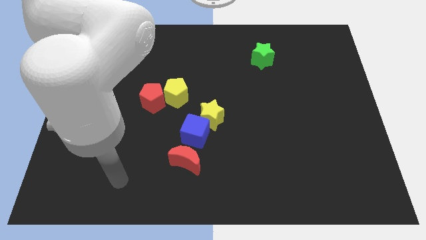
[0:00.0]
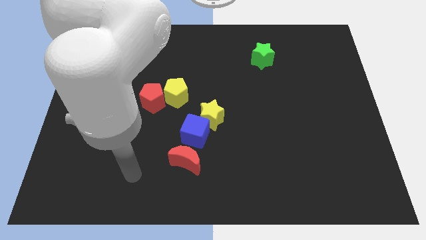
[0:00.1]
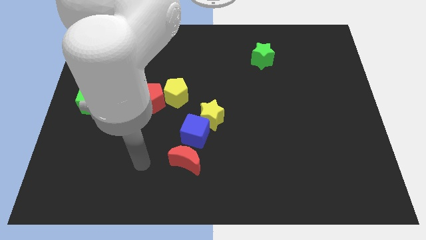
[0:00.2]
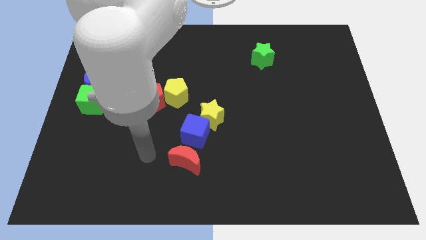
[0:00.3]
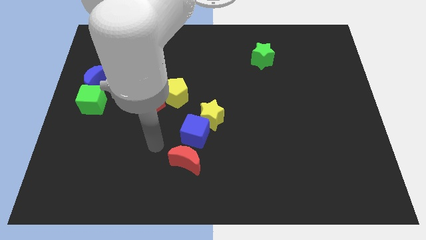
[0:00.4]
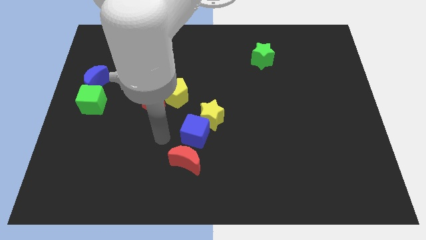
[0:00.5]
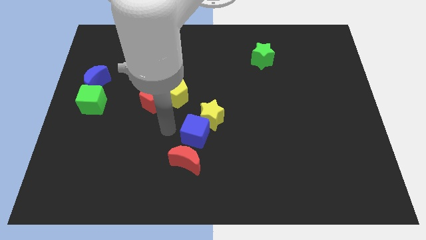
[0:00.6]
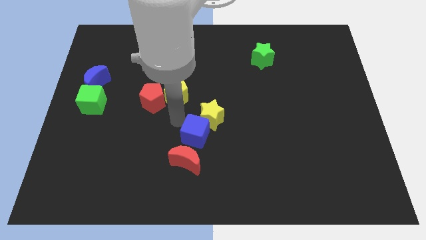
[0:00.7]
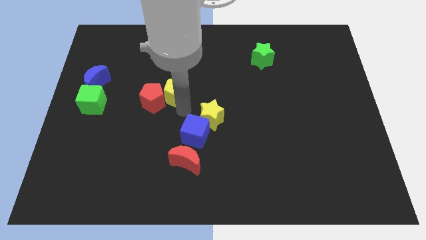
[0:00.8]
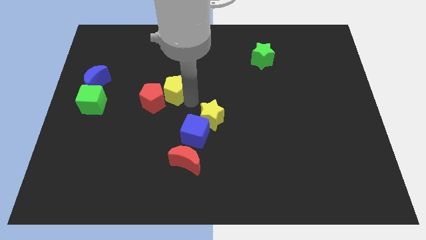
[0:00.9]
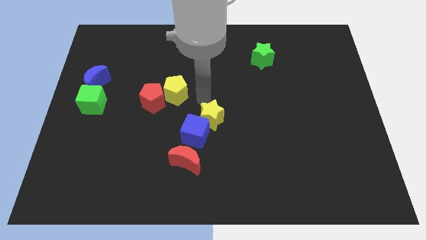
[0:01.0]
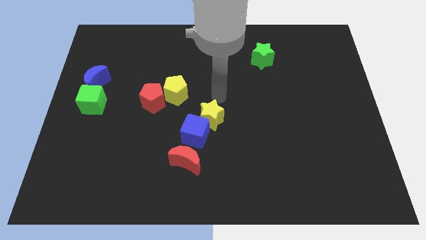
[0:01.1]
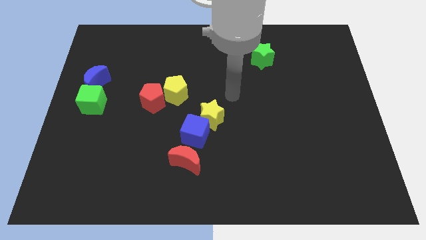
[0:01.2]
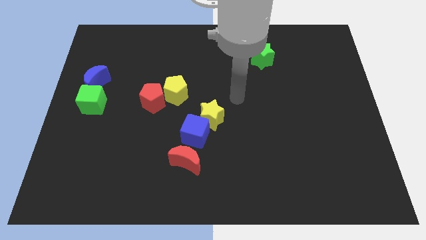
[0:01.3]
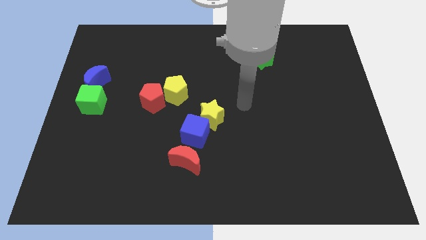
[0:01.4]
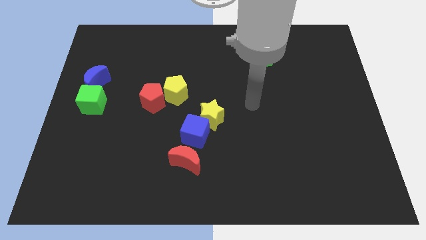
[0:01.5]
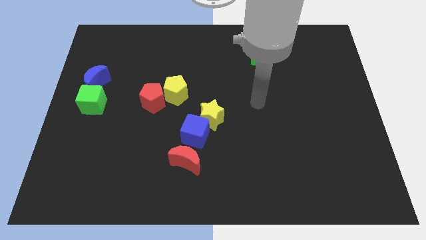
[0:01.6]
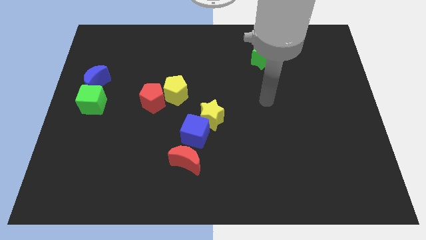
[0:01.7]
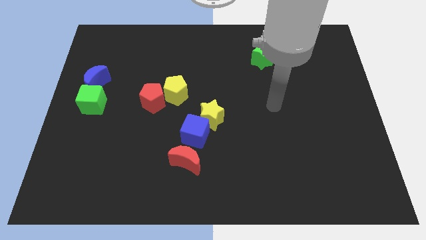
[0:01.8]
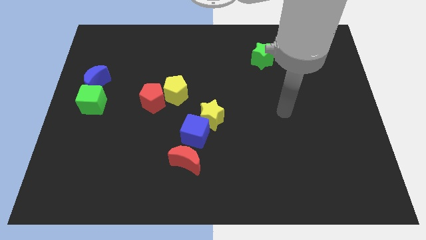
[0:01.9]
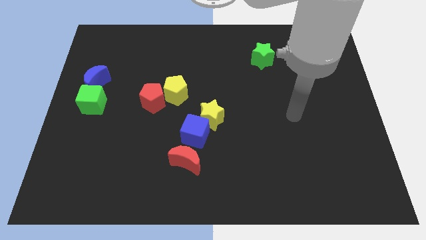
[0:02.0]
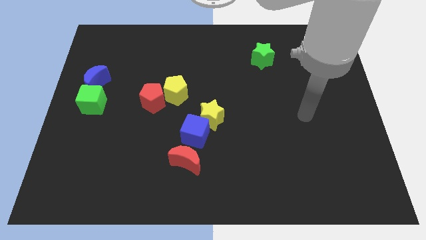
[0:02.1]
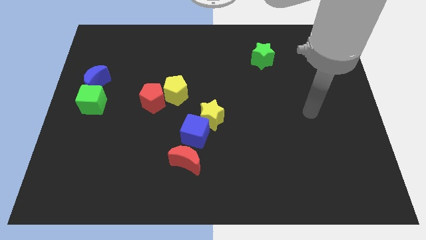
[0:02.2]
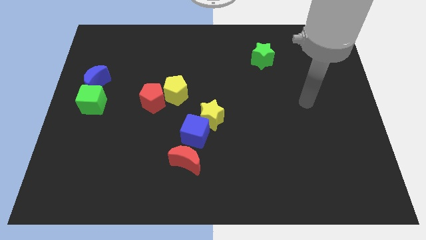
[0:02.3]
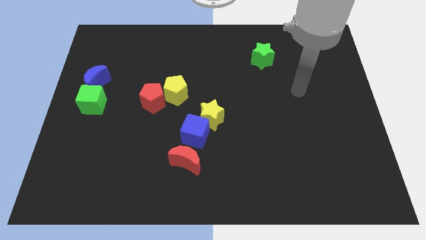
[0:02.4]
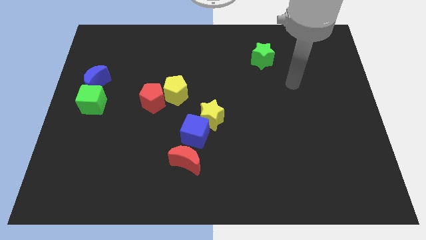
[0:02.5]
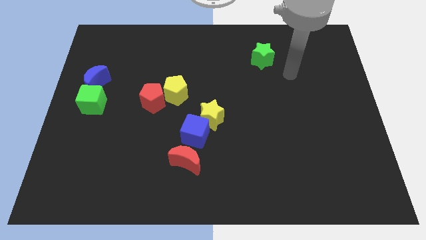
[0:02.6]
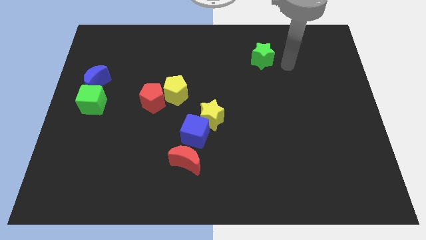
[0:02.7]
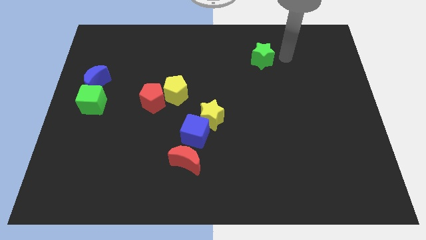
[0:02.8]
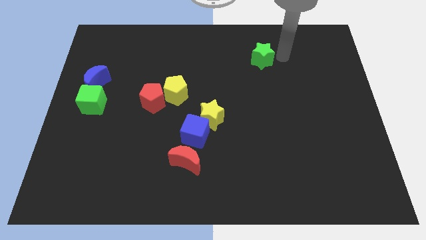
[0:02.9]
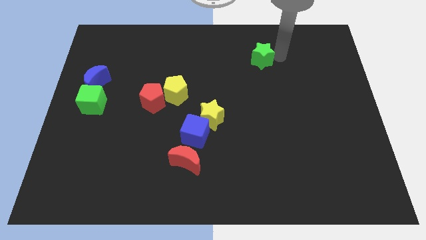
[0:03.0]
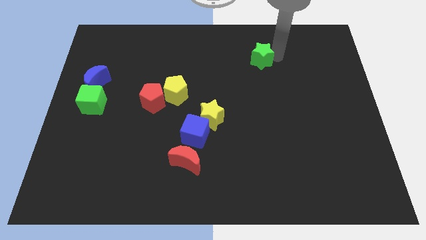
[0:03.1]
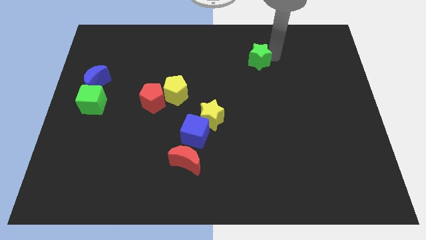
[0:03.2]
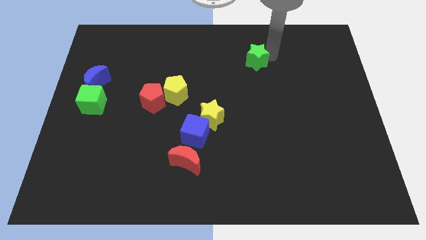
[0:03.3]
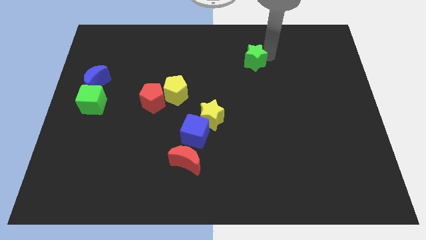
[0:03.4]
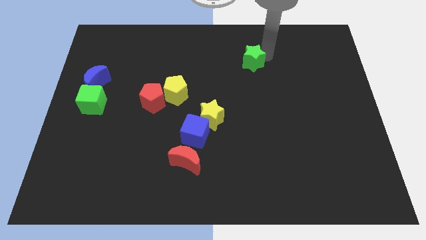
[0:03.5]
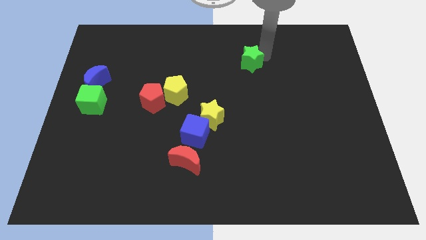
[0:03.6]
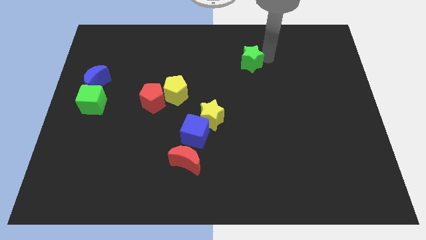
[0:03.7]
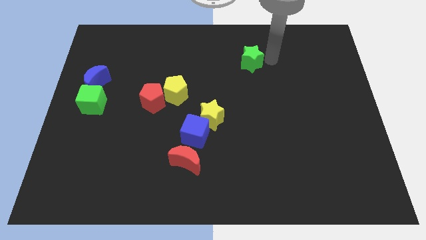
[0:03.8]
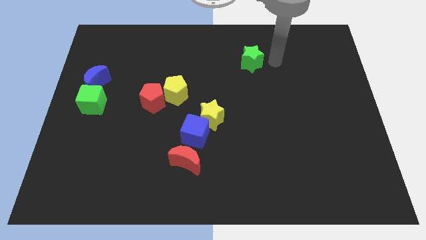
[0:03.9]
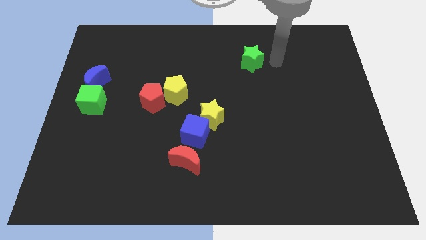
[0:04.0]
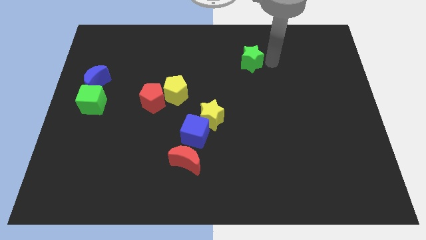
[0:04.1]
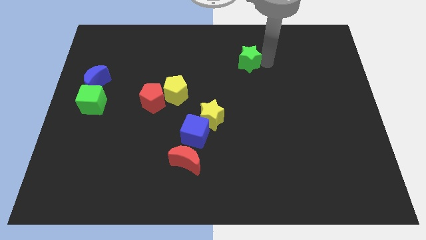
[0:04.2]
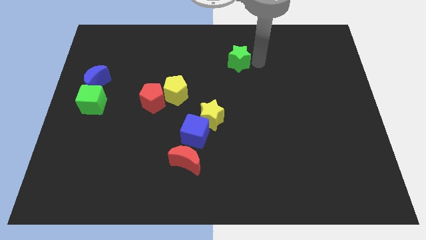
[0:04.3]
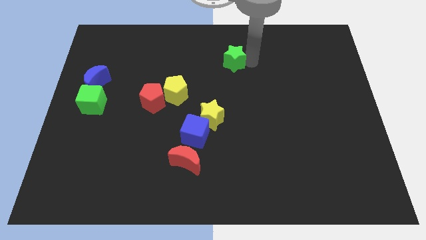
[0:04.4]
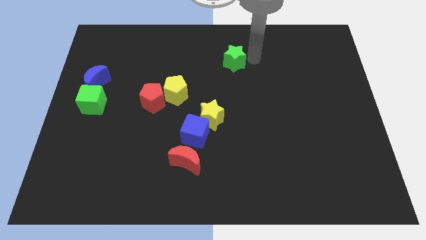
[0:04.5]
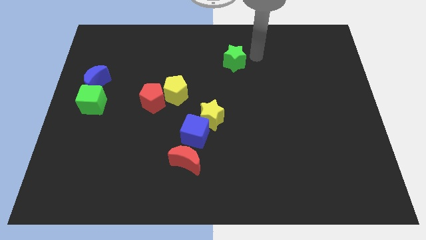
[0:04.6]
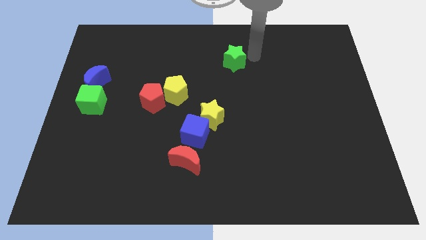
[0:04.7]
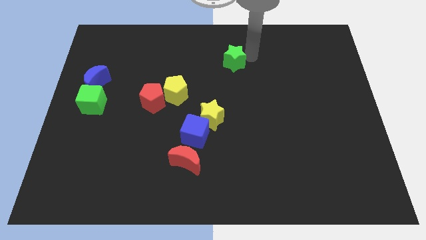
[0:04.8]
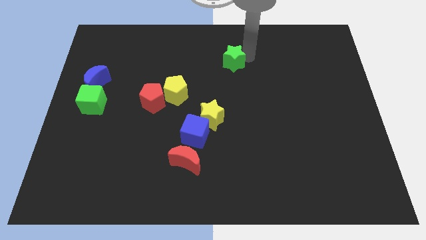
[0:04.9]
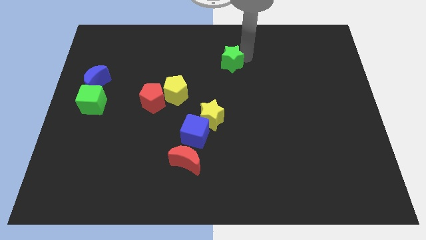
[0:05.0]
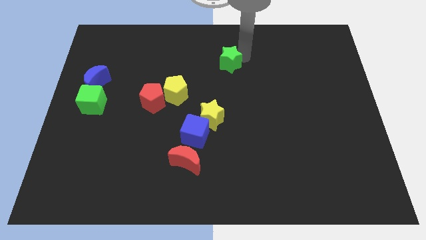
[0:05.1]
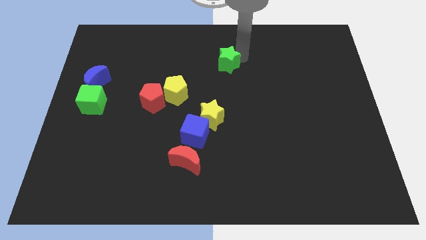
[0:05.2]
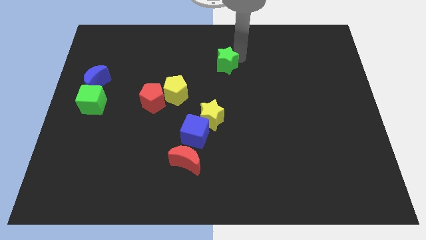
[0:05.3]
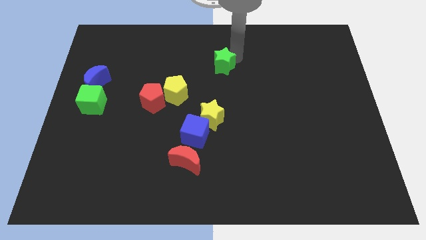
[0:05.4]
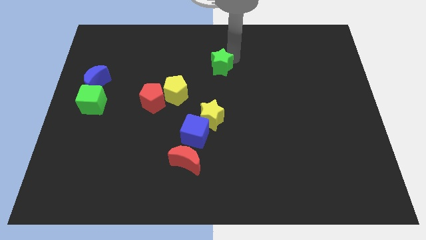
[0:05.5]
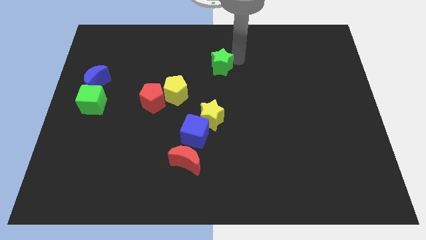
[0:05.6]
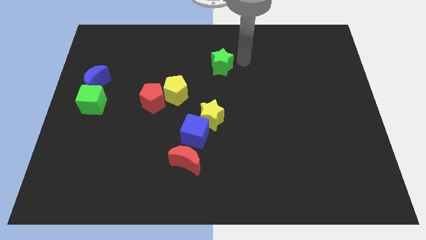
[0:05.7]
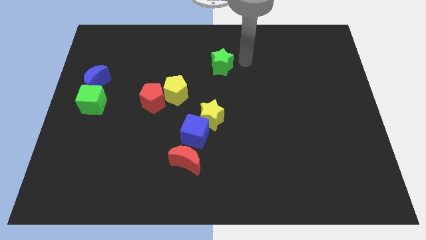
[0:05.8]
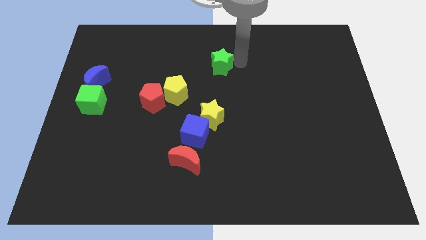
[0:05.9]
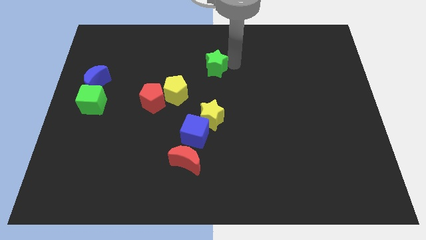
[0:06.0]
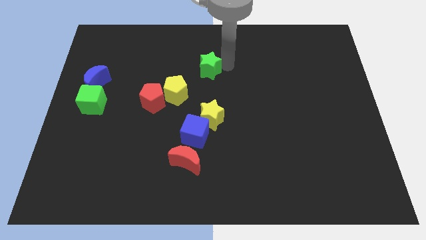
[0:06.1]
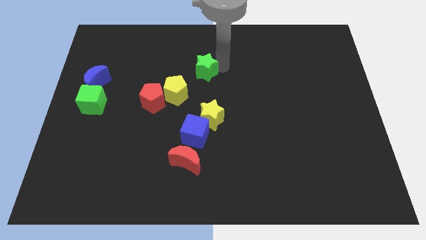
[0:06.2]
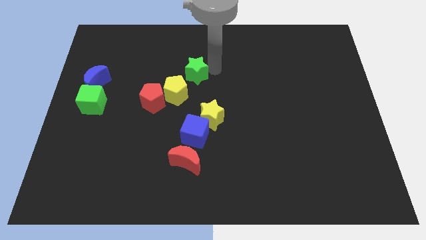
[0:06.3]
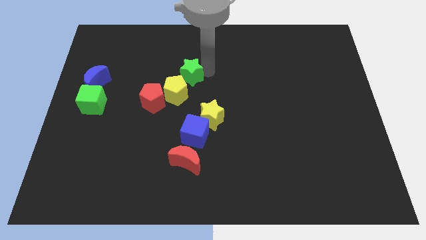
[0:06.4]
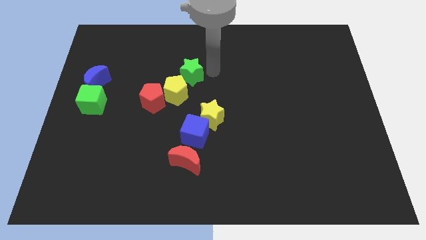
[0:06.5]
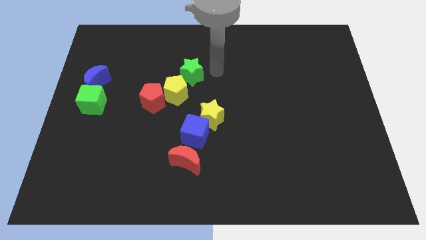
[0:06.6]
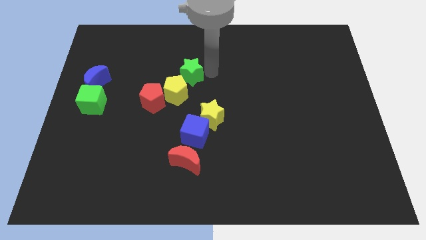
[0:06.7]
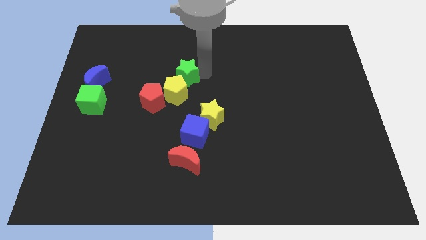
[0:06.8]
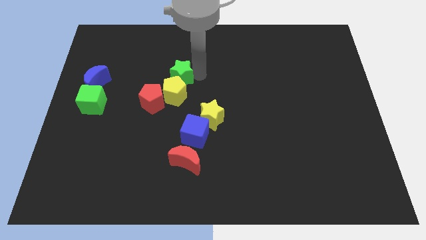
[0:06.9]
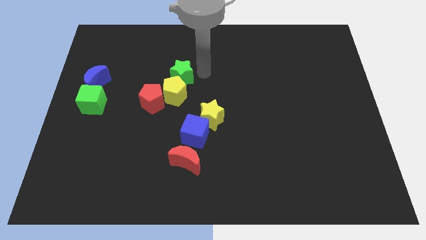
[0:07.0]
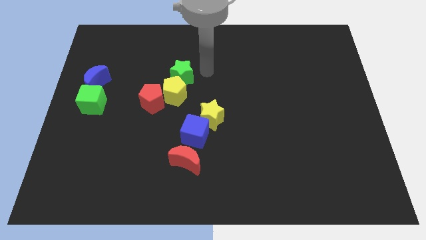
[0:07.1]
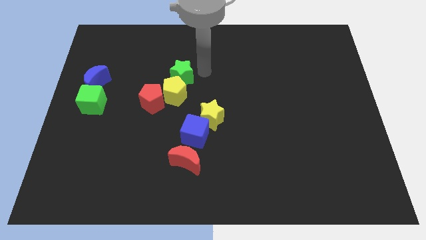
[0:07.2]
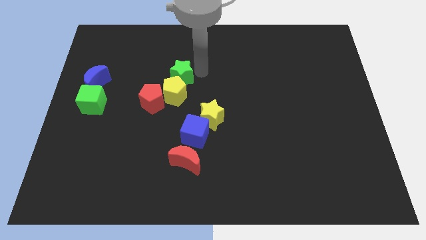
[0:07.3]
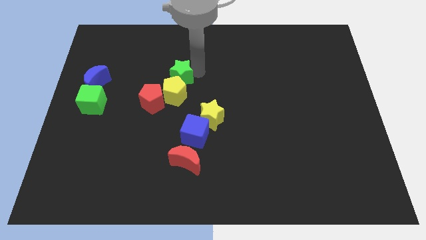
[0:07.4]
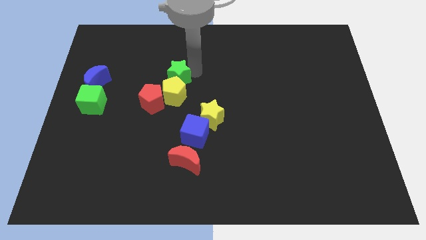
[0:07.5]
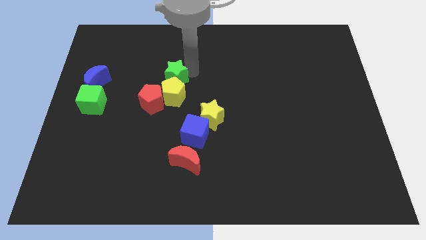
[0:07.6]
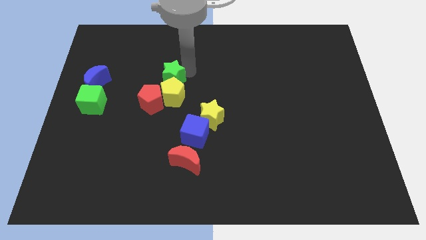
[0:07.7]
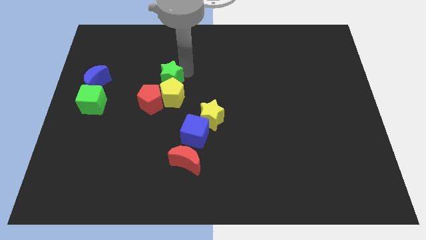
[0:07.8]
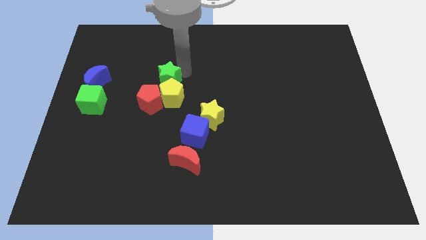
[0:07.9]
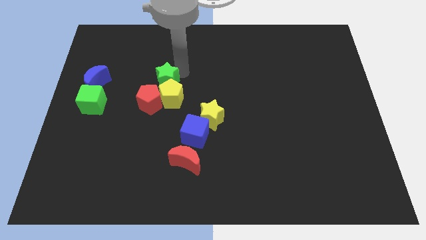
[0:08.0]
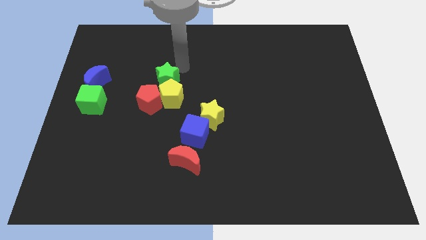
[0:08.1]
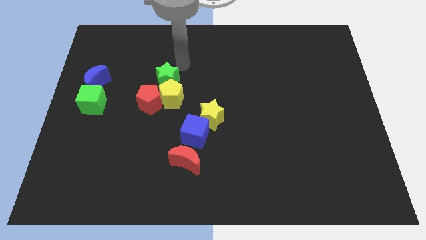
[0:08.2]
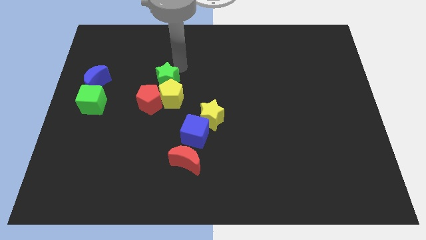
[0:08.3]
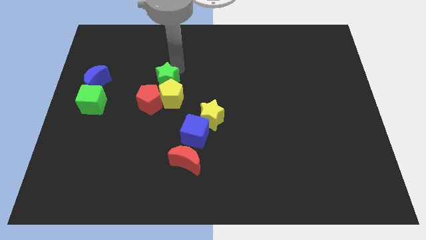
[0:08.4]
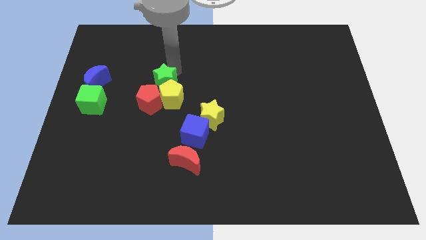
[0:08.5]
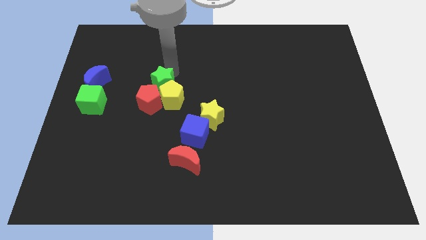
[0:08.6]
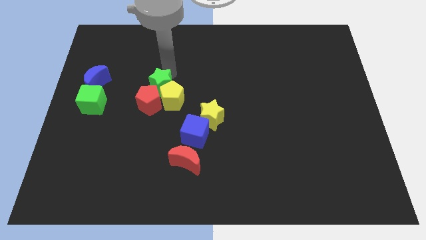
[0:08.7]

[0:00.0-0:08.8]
push the green star to the red pentagon
